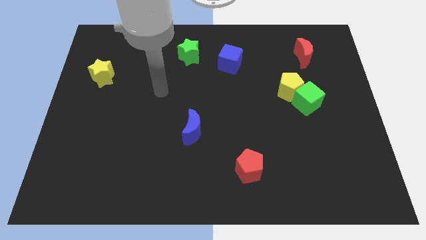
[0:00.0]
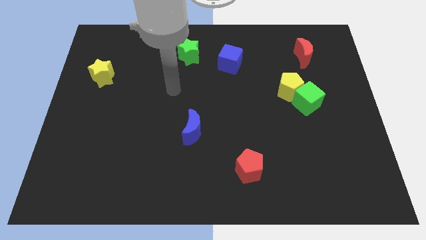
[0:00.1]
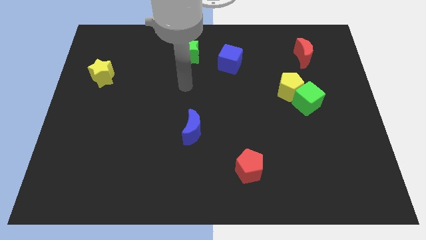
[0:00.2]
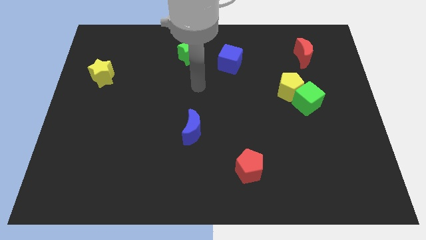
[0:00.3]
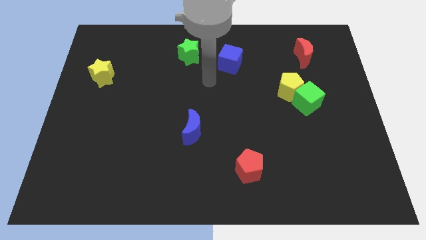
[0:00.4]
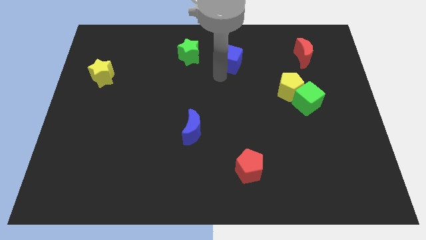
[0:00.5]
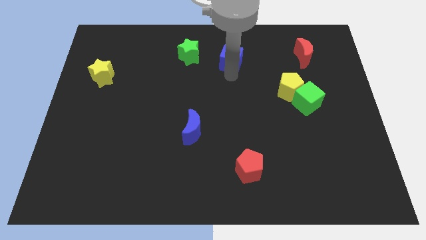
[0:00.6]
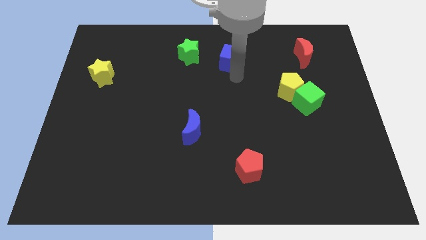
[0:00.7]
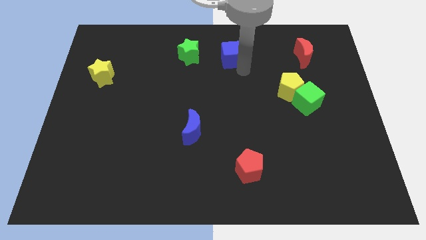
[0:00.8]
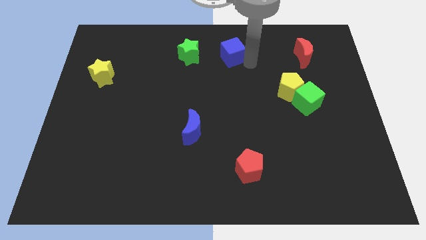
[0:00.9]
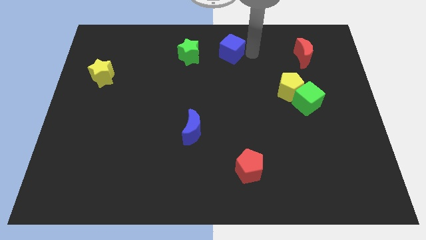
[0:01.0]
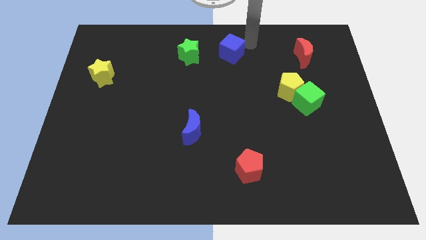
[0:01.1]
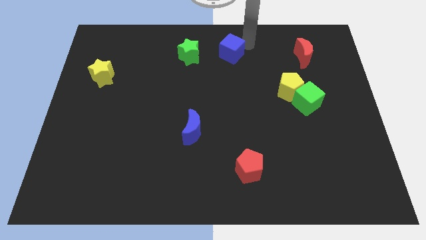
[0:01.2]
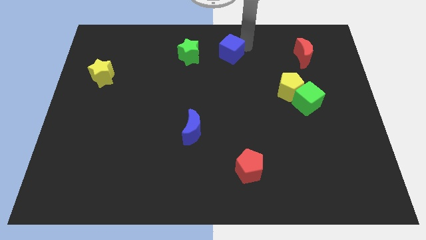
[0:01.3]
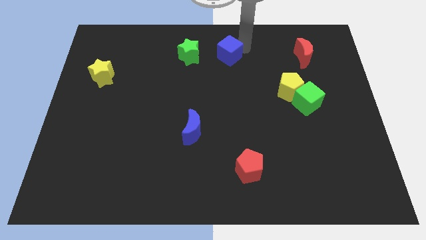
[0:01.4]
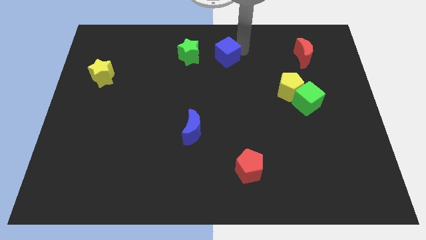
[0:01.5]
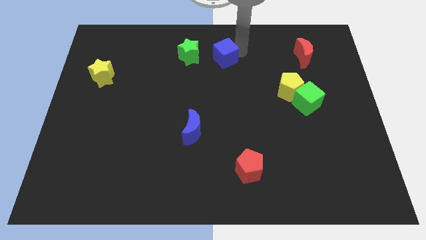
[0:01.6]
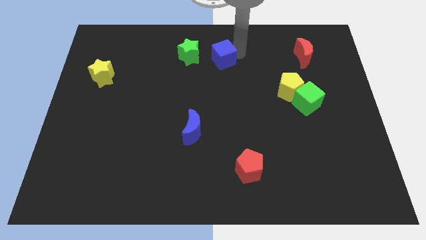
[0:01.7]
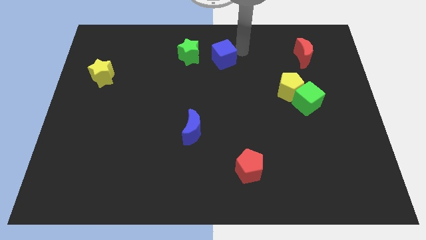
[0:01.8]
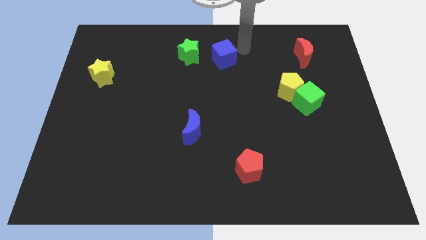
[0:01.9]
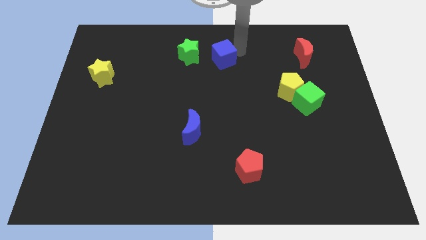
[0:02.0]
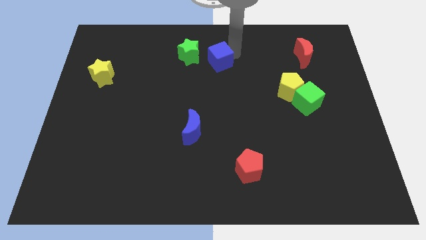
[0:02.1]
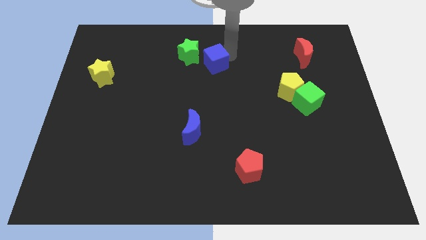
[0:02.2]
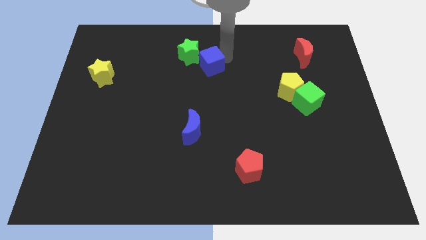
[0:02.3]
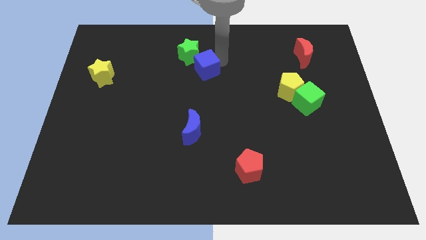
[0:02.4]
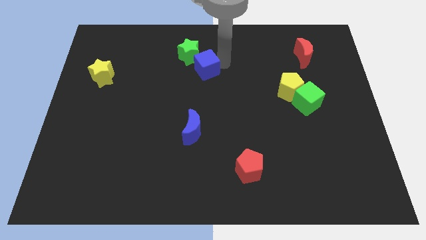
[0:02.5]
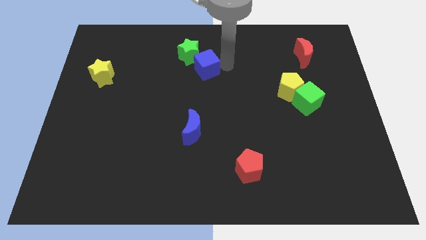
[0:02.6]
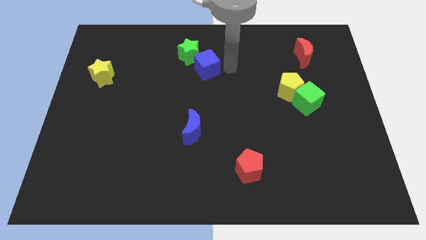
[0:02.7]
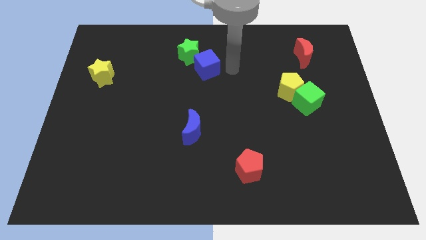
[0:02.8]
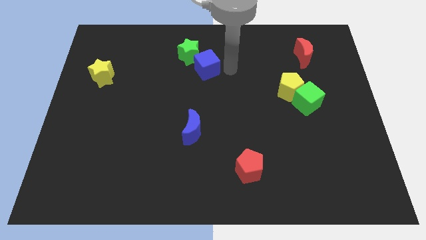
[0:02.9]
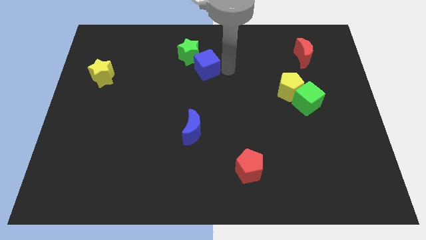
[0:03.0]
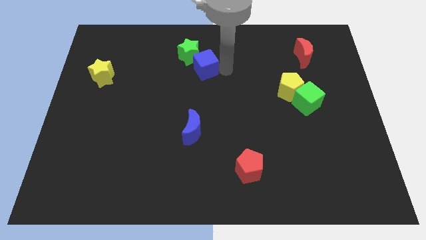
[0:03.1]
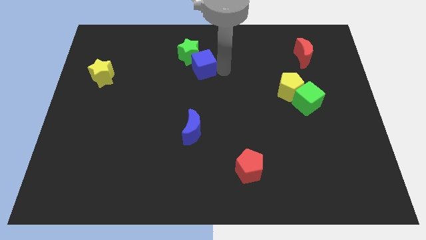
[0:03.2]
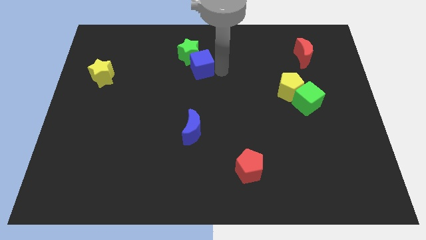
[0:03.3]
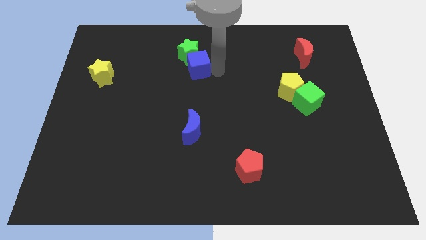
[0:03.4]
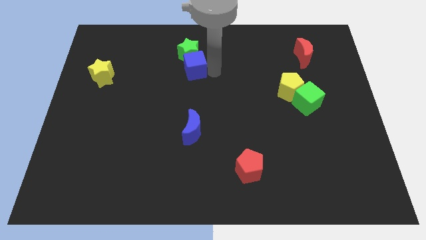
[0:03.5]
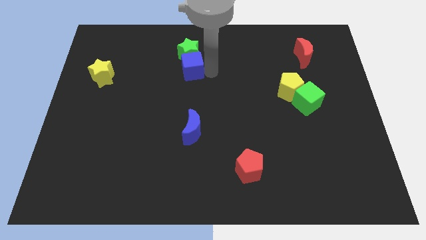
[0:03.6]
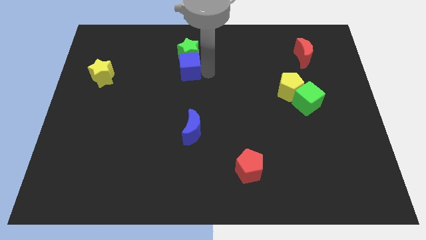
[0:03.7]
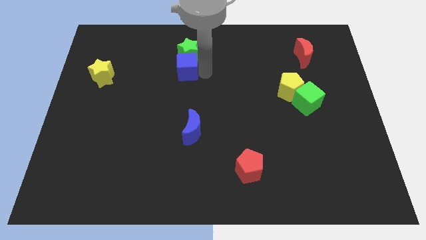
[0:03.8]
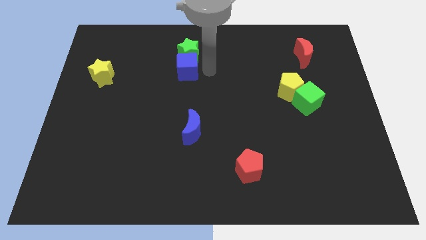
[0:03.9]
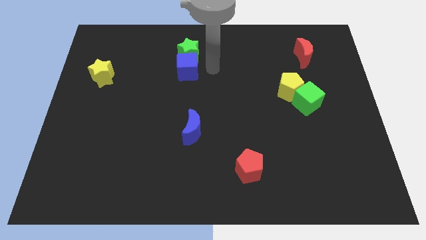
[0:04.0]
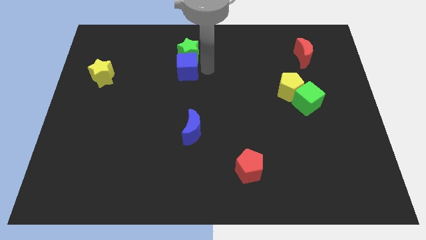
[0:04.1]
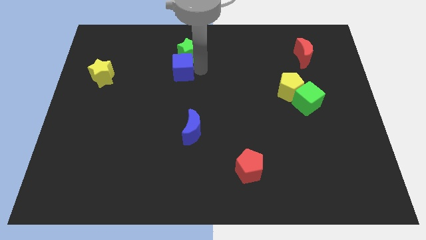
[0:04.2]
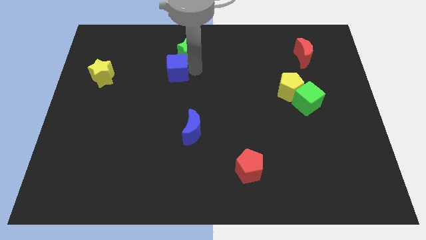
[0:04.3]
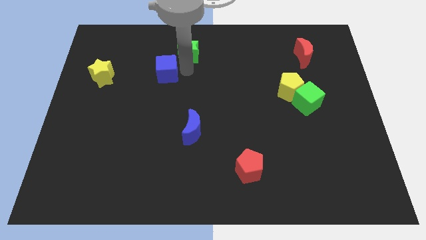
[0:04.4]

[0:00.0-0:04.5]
push the blue cube just right of the yellow star

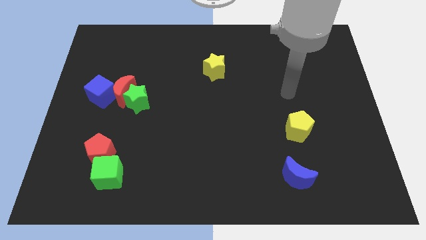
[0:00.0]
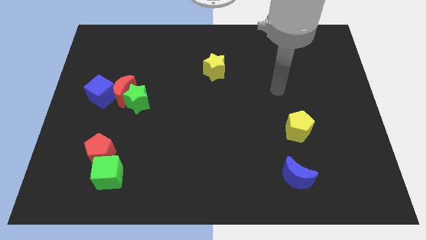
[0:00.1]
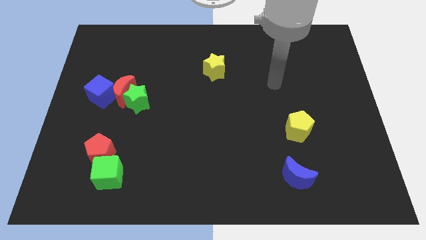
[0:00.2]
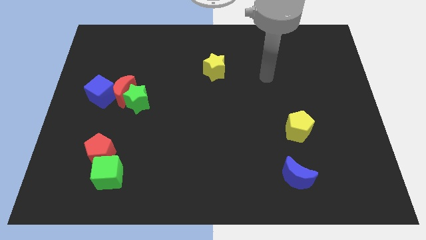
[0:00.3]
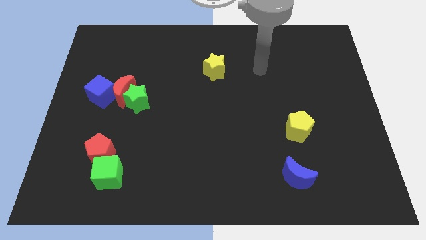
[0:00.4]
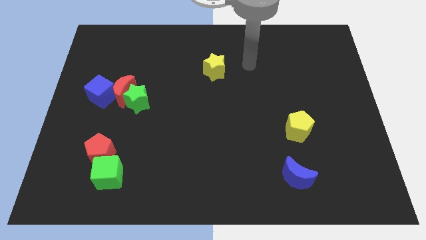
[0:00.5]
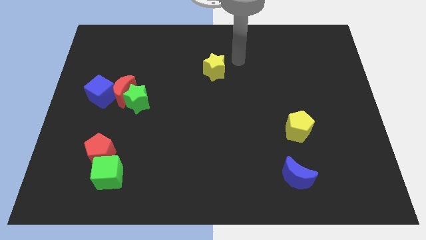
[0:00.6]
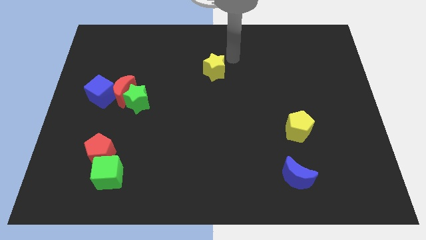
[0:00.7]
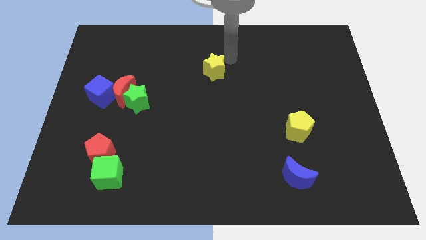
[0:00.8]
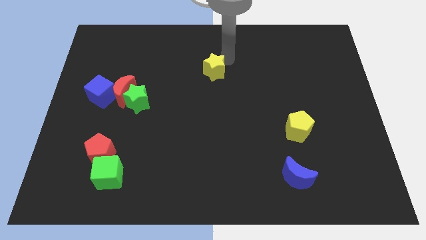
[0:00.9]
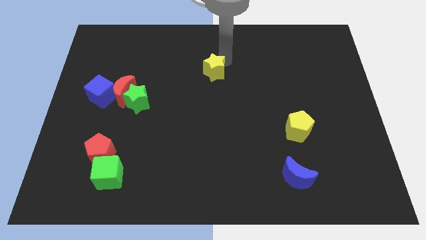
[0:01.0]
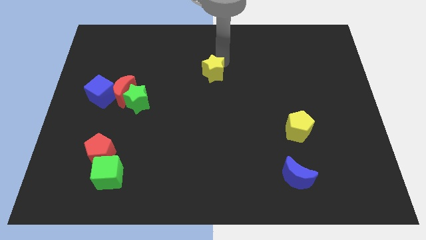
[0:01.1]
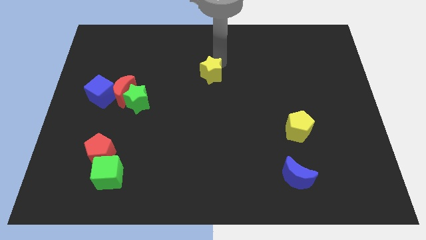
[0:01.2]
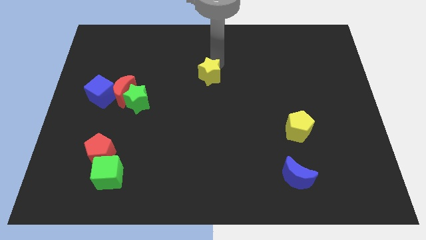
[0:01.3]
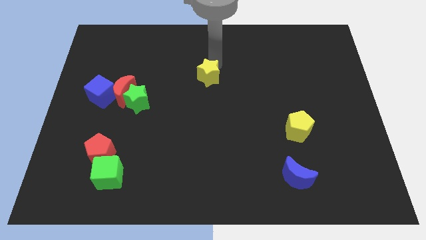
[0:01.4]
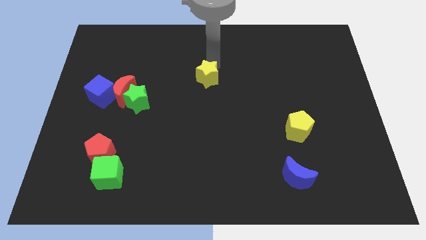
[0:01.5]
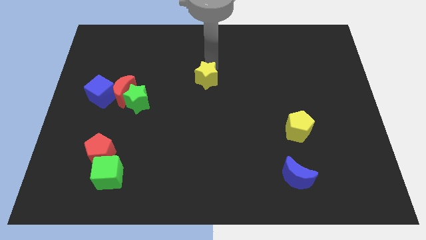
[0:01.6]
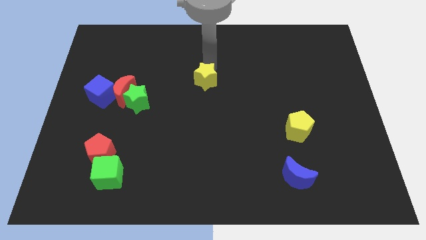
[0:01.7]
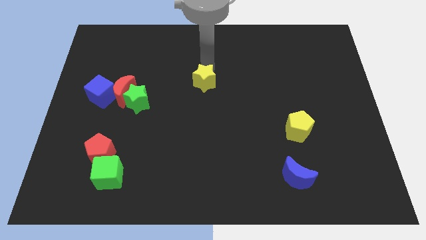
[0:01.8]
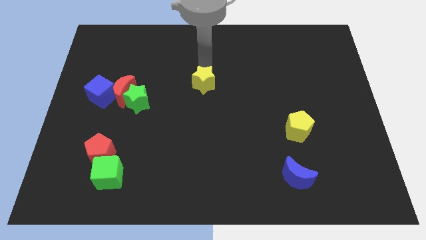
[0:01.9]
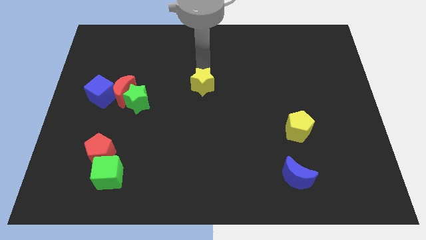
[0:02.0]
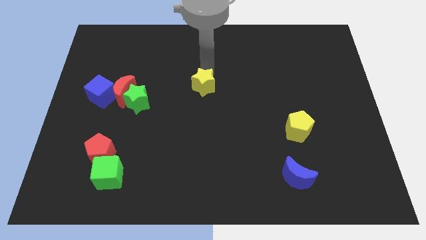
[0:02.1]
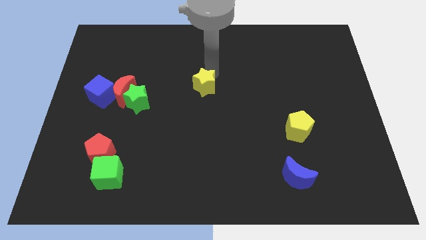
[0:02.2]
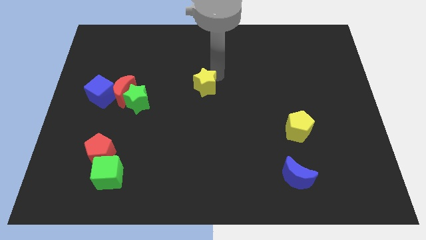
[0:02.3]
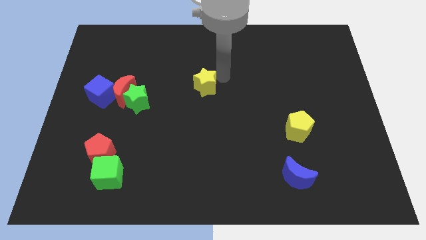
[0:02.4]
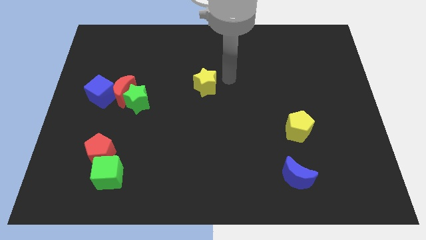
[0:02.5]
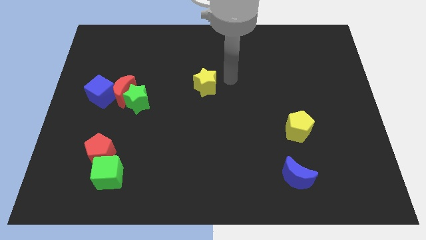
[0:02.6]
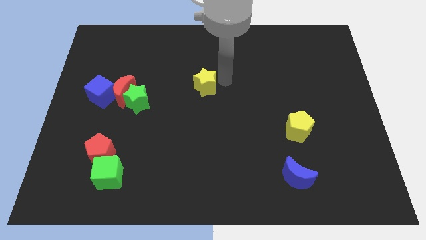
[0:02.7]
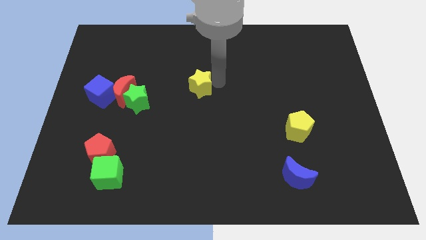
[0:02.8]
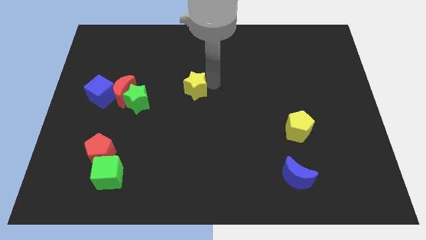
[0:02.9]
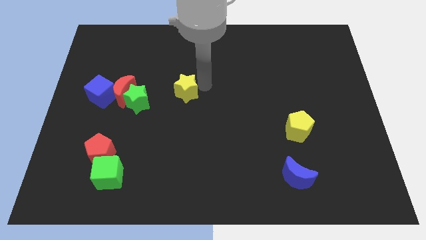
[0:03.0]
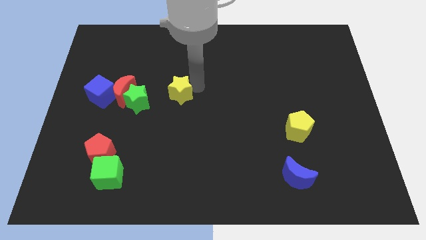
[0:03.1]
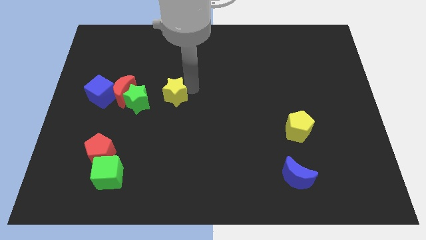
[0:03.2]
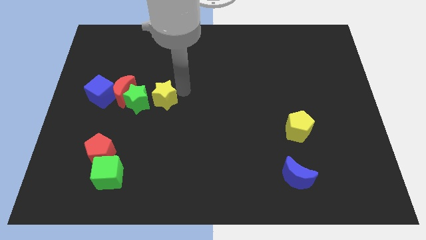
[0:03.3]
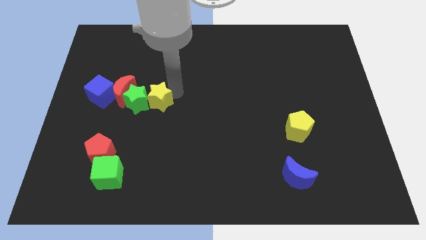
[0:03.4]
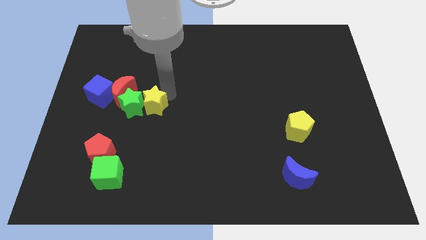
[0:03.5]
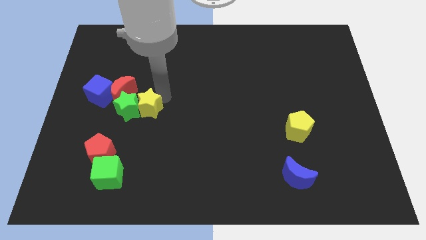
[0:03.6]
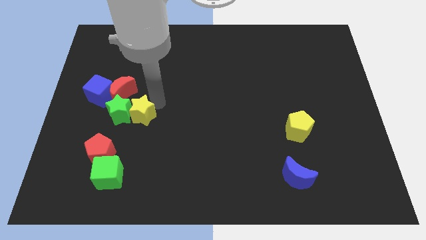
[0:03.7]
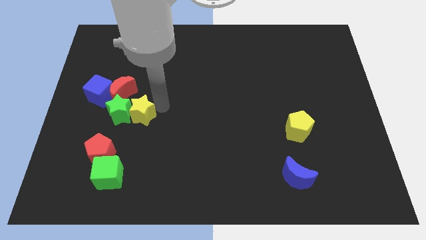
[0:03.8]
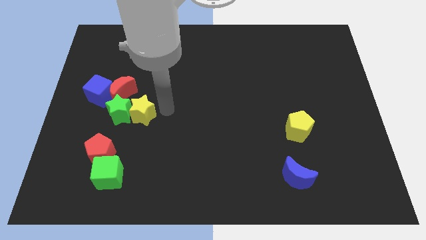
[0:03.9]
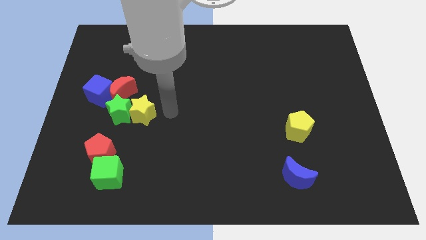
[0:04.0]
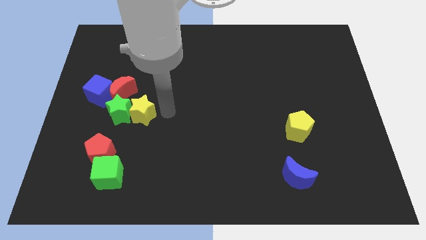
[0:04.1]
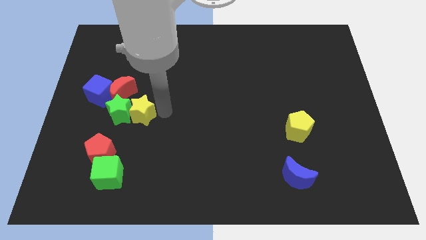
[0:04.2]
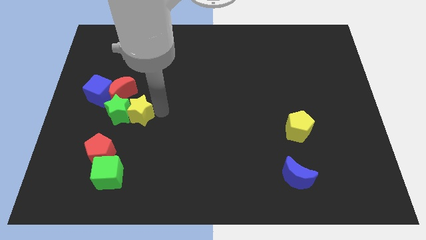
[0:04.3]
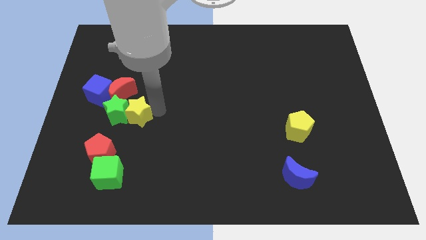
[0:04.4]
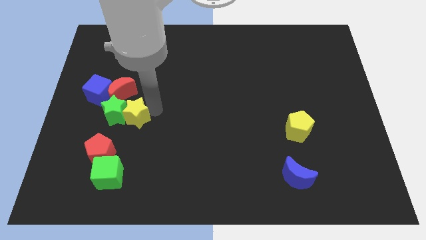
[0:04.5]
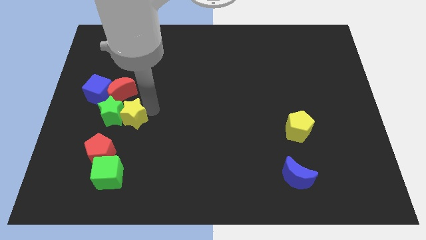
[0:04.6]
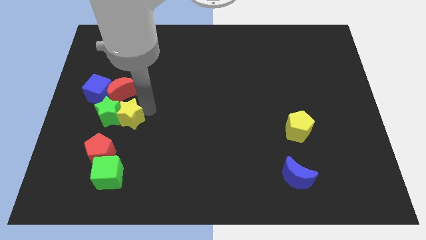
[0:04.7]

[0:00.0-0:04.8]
slide the yellow star to the top of the red pentagon
